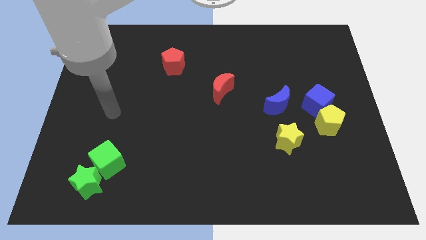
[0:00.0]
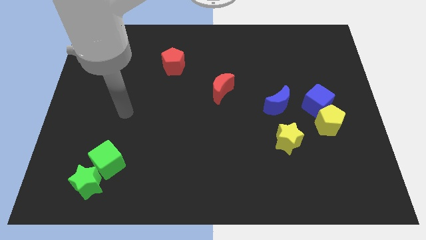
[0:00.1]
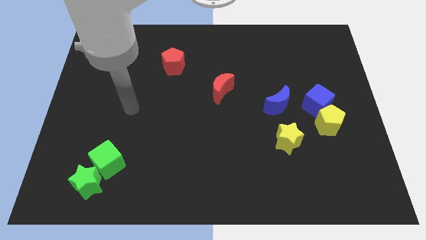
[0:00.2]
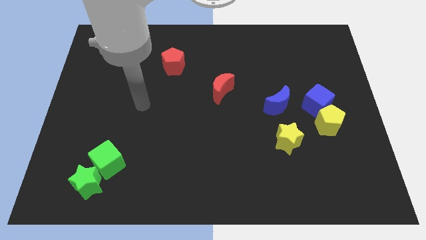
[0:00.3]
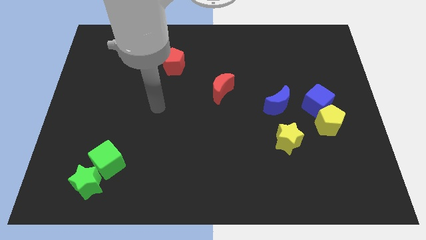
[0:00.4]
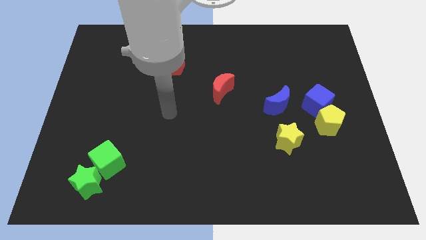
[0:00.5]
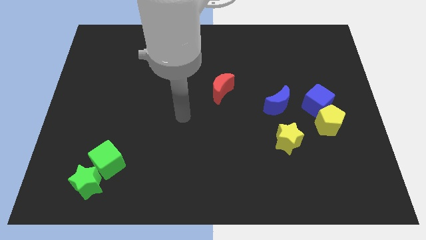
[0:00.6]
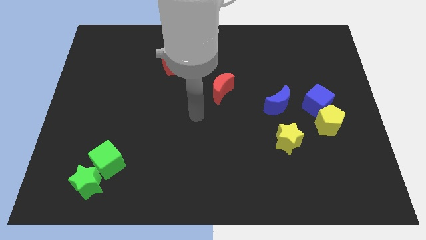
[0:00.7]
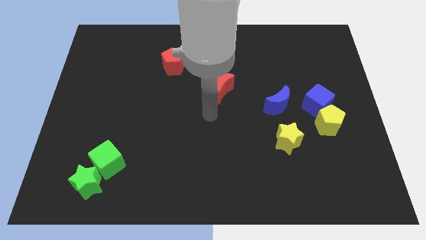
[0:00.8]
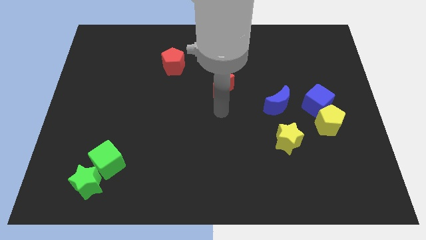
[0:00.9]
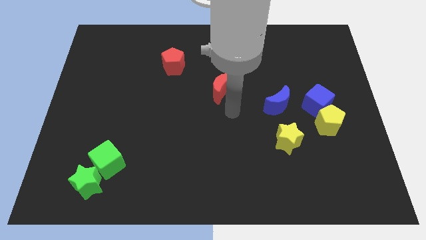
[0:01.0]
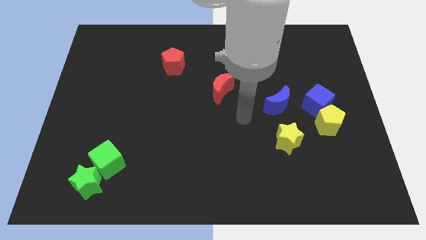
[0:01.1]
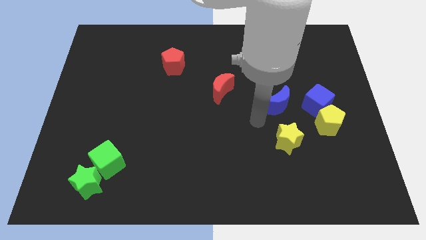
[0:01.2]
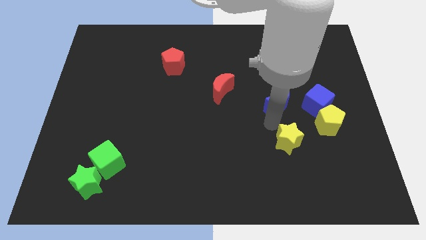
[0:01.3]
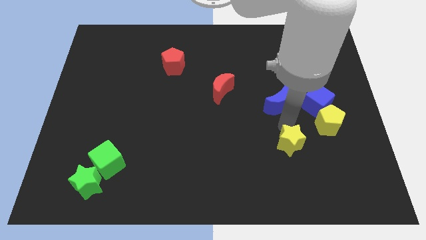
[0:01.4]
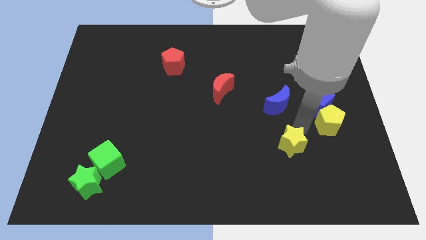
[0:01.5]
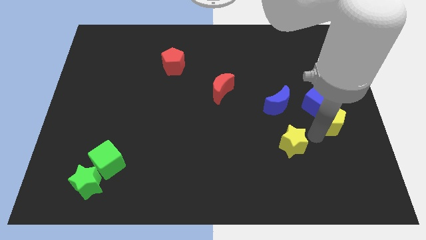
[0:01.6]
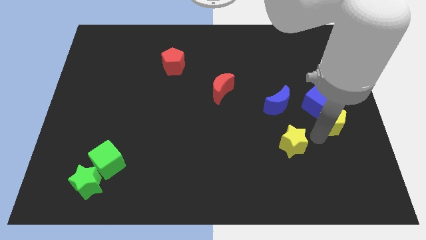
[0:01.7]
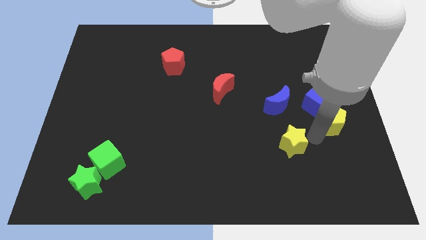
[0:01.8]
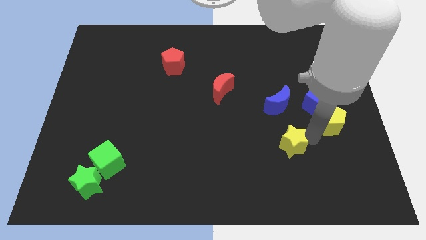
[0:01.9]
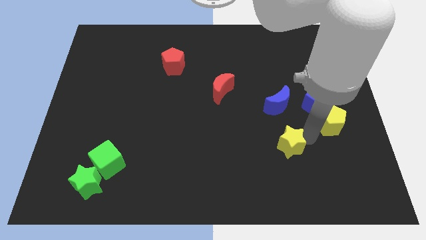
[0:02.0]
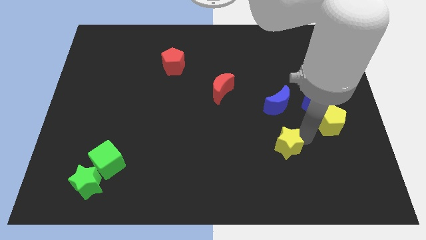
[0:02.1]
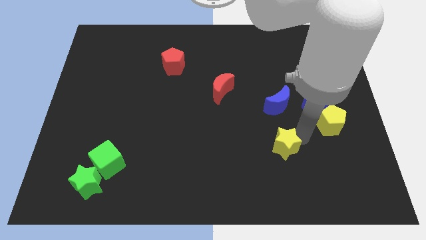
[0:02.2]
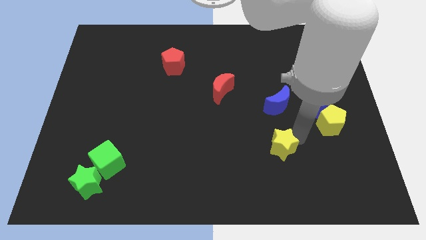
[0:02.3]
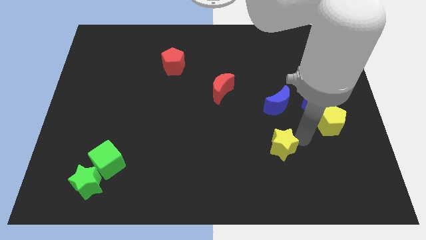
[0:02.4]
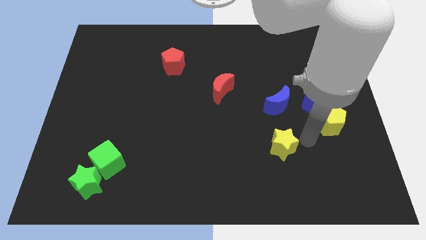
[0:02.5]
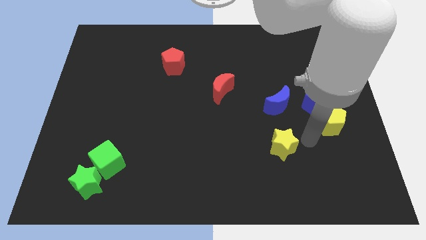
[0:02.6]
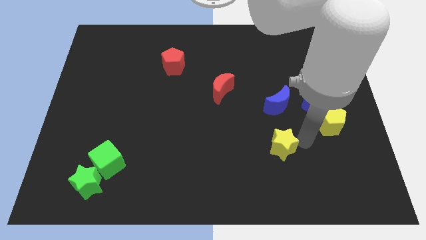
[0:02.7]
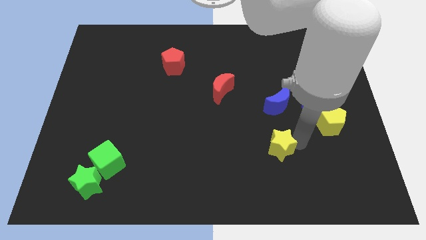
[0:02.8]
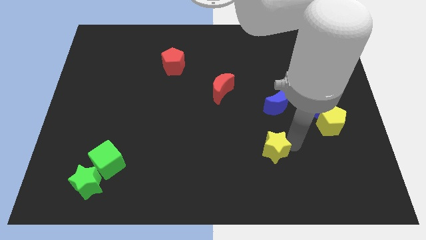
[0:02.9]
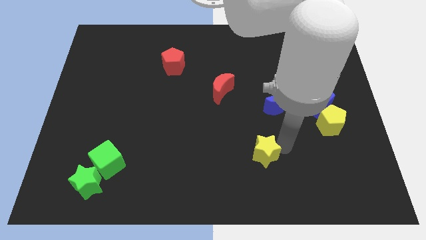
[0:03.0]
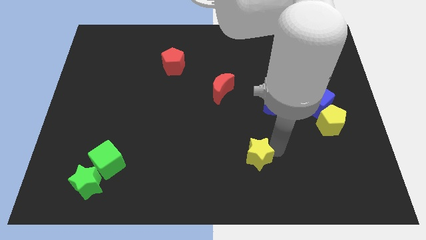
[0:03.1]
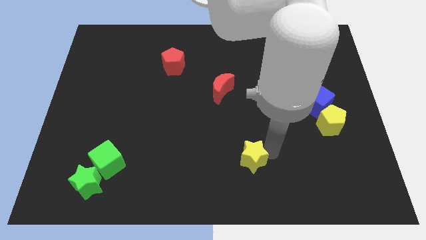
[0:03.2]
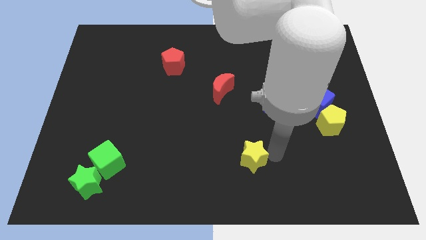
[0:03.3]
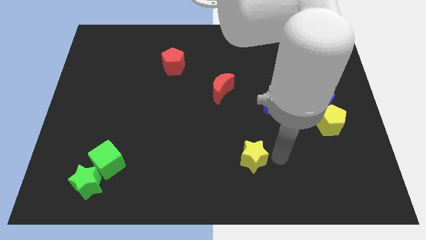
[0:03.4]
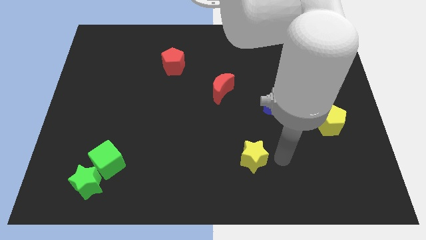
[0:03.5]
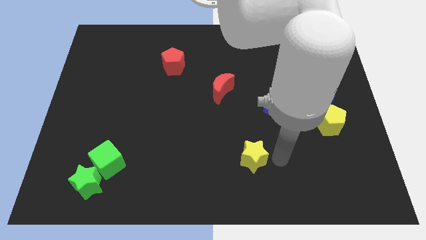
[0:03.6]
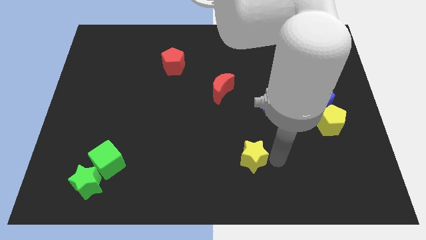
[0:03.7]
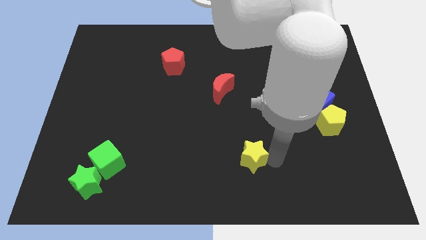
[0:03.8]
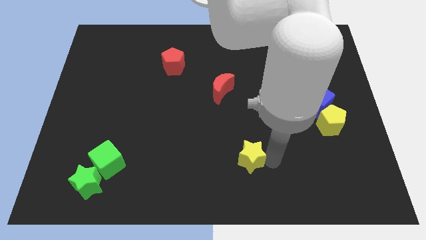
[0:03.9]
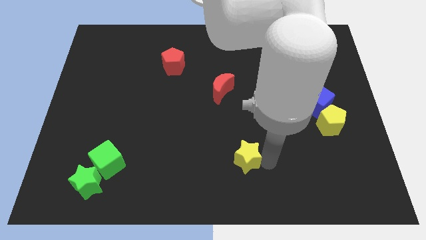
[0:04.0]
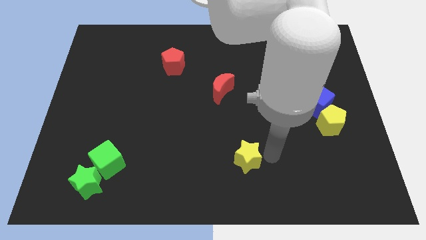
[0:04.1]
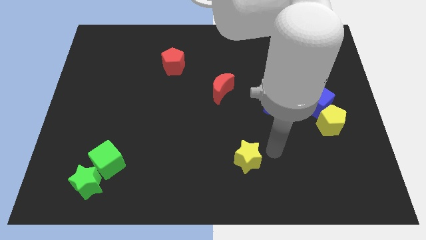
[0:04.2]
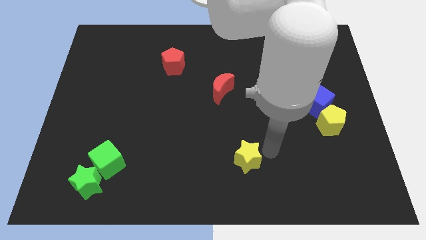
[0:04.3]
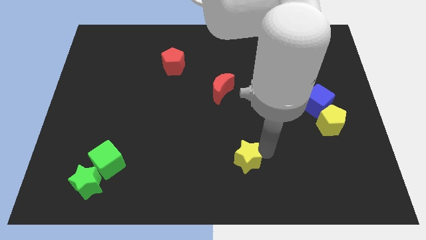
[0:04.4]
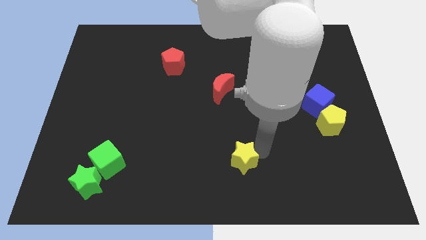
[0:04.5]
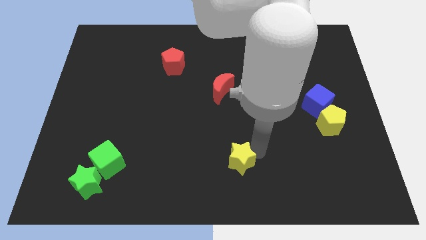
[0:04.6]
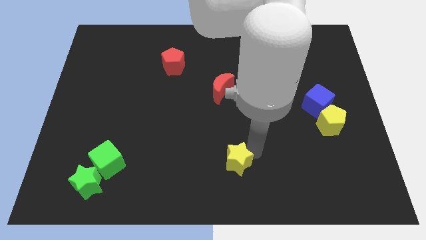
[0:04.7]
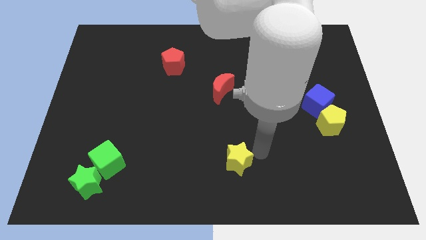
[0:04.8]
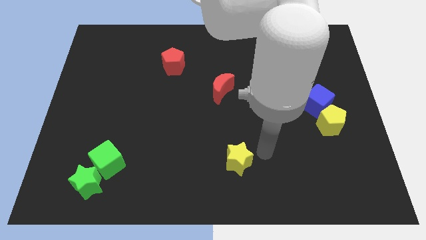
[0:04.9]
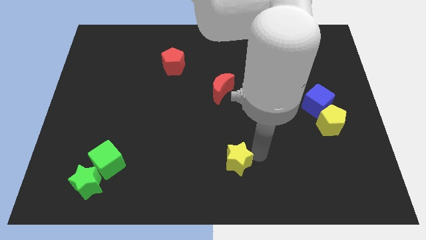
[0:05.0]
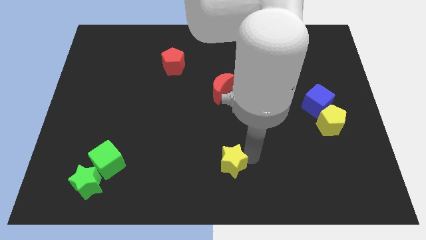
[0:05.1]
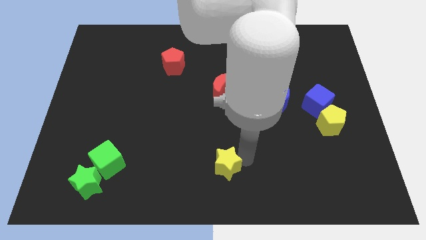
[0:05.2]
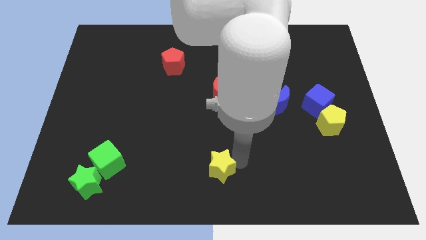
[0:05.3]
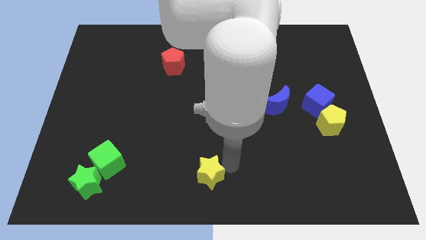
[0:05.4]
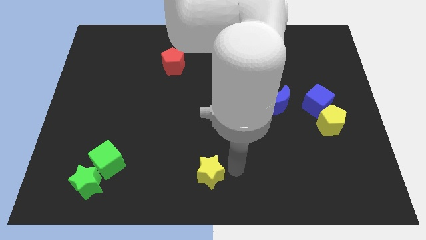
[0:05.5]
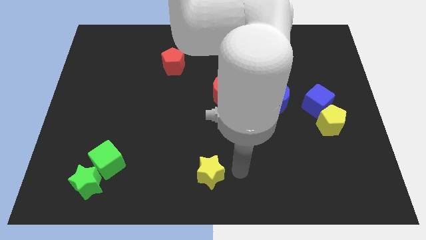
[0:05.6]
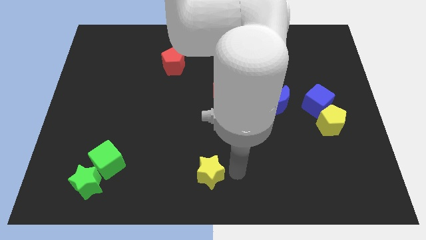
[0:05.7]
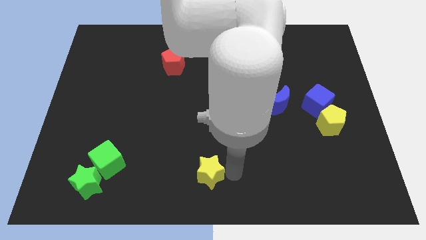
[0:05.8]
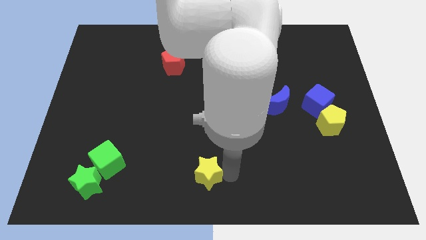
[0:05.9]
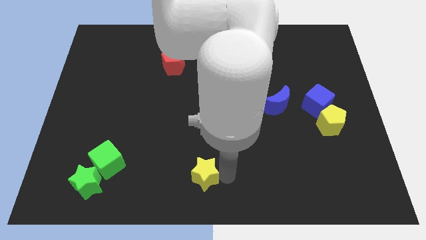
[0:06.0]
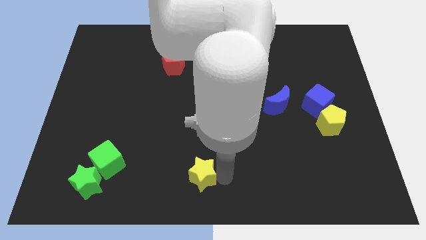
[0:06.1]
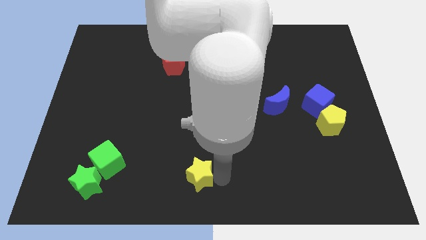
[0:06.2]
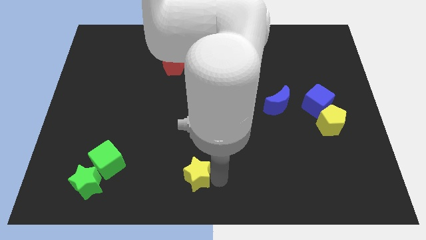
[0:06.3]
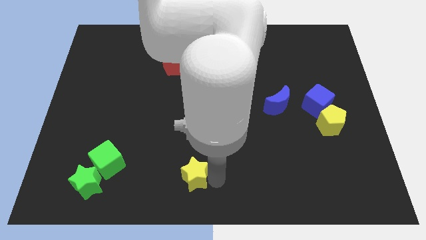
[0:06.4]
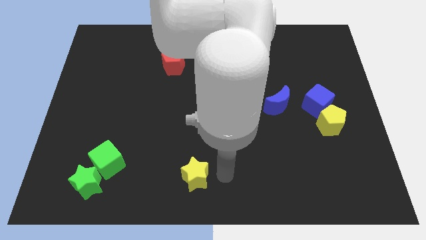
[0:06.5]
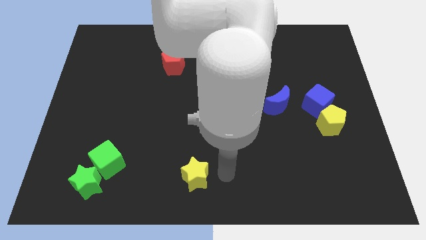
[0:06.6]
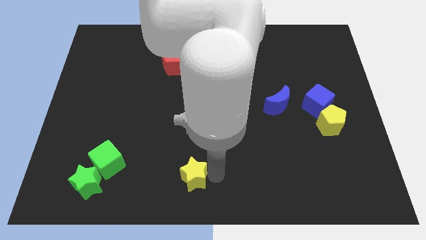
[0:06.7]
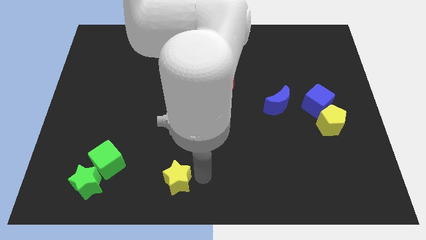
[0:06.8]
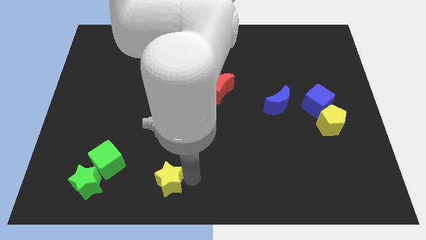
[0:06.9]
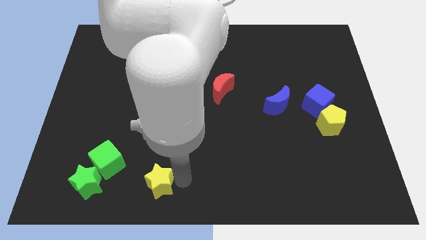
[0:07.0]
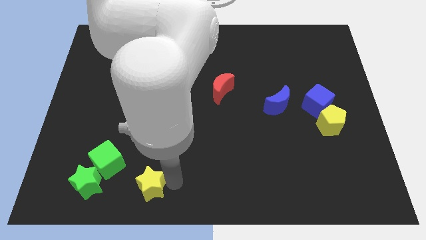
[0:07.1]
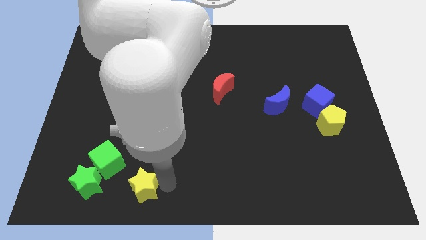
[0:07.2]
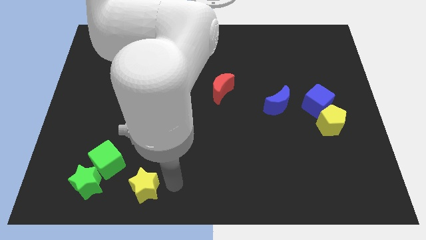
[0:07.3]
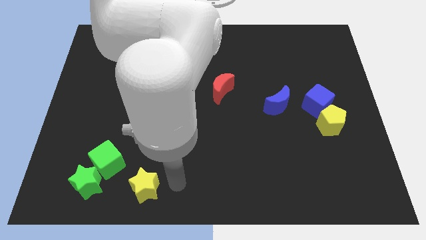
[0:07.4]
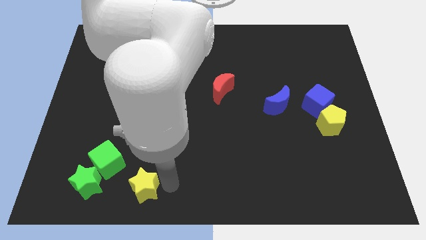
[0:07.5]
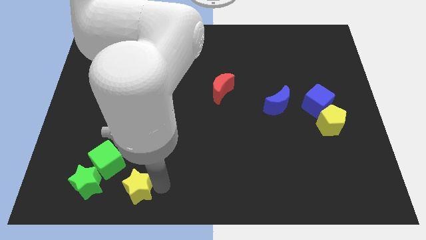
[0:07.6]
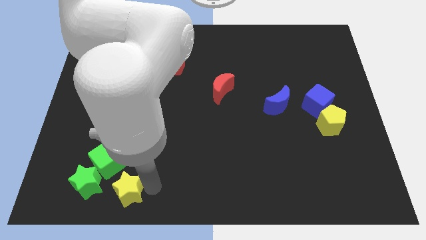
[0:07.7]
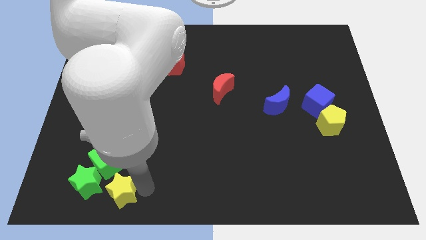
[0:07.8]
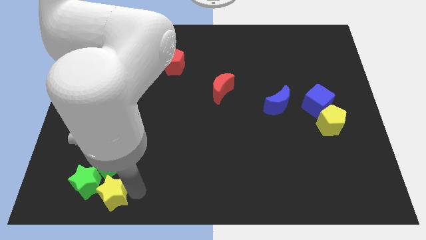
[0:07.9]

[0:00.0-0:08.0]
push the yellow star close to the green star
